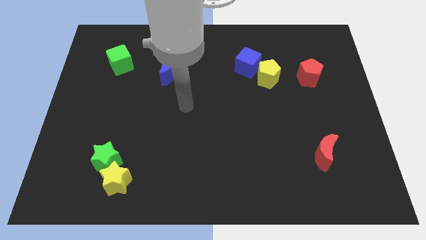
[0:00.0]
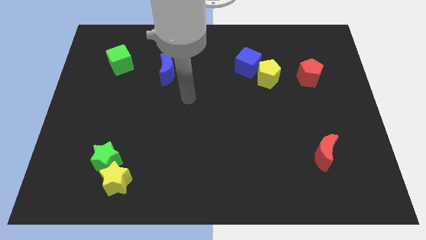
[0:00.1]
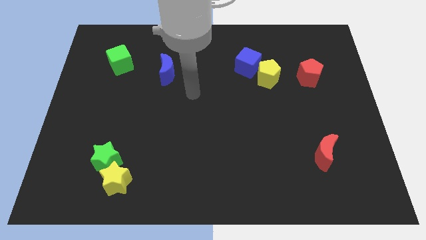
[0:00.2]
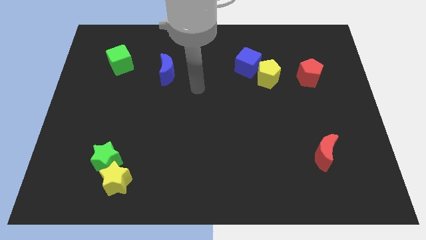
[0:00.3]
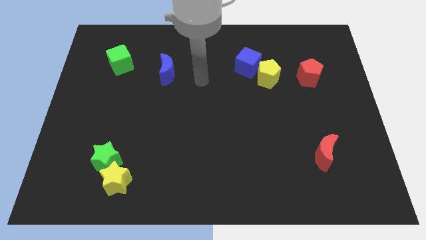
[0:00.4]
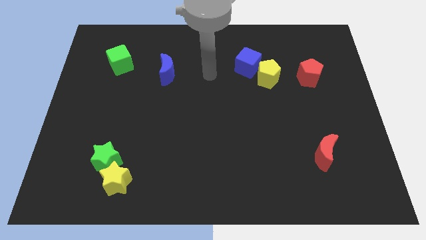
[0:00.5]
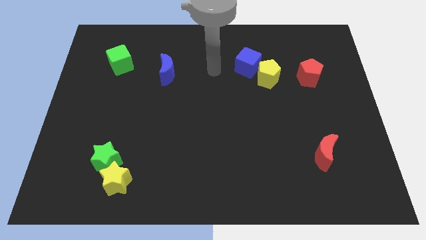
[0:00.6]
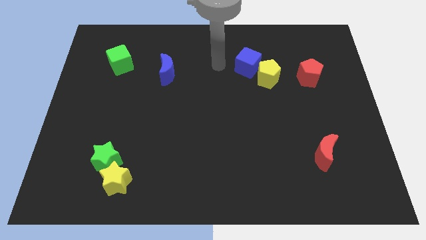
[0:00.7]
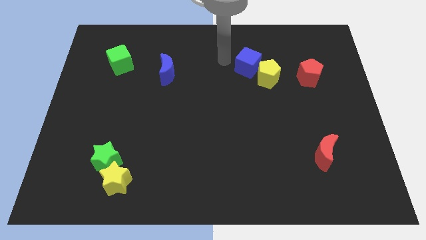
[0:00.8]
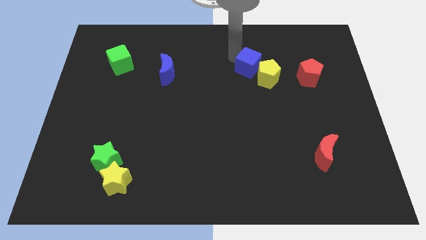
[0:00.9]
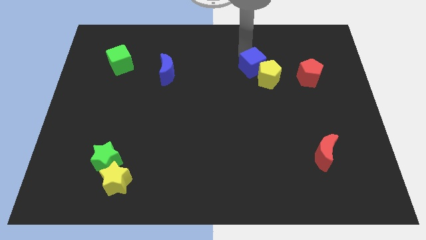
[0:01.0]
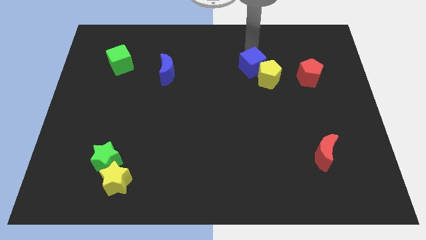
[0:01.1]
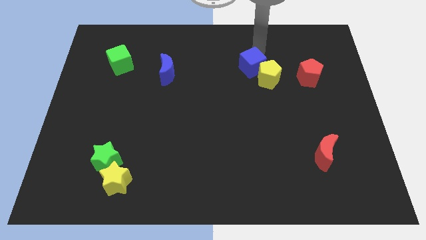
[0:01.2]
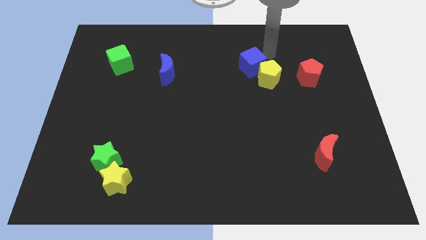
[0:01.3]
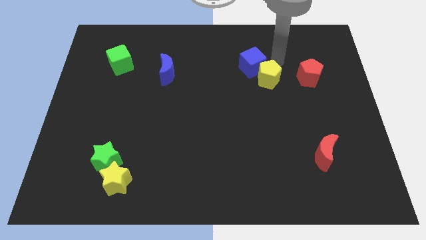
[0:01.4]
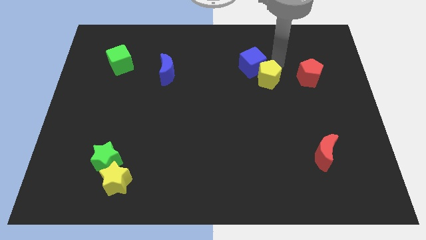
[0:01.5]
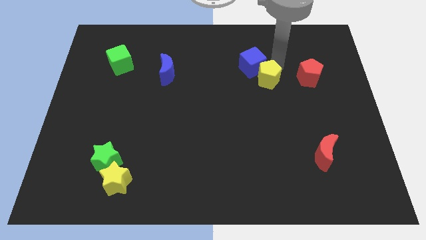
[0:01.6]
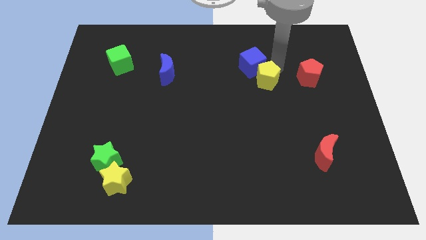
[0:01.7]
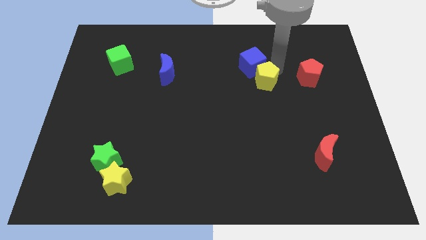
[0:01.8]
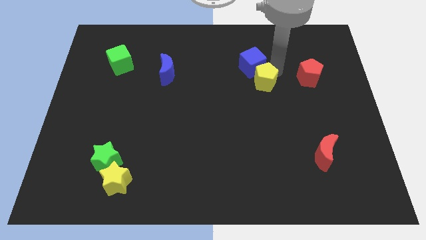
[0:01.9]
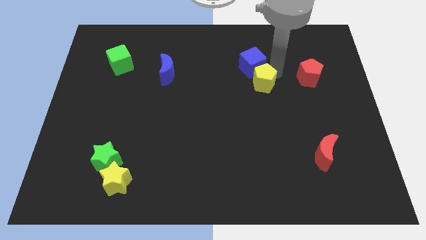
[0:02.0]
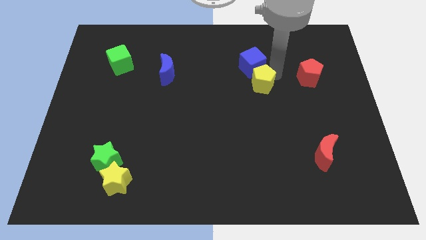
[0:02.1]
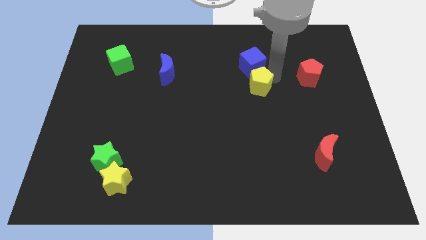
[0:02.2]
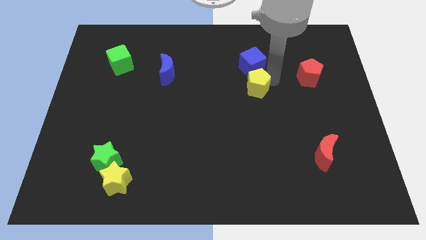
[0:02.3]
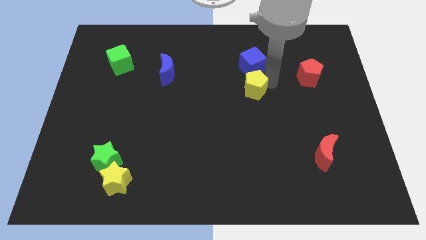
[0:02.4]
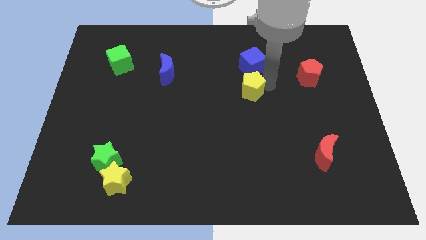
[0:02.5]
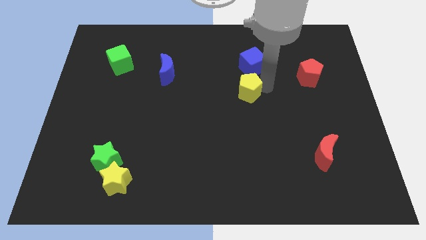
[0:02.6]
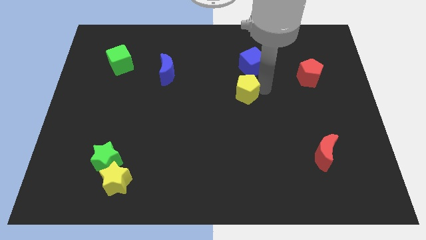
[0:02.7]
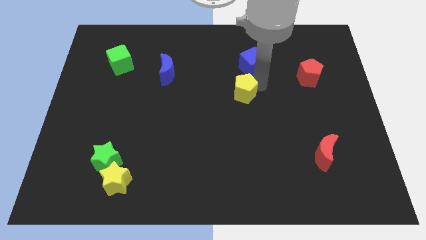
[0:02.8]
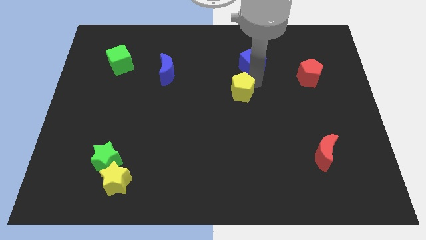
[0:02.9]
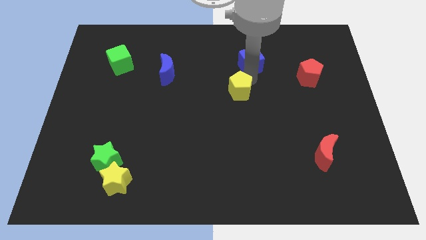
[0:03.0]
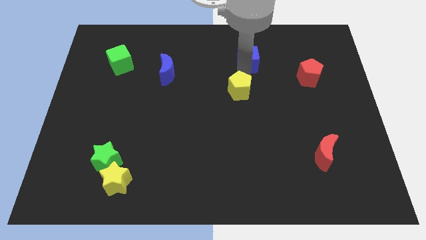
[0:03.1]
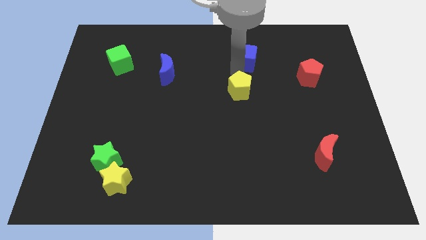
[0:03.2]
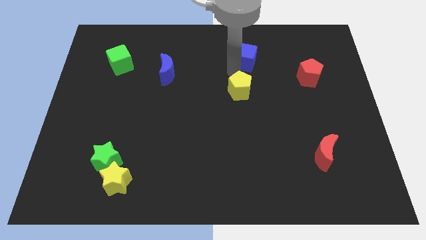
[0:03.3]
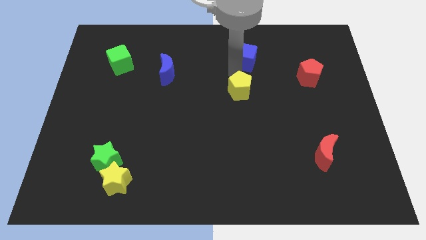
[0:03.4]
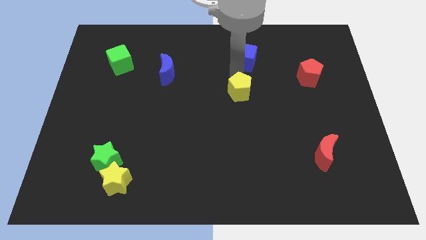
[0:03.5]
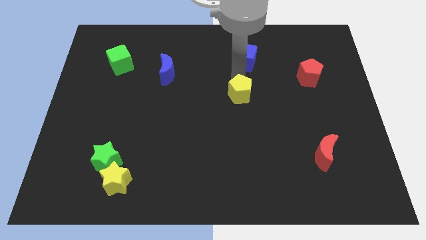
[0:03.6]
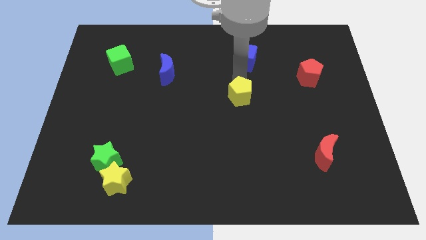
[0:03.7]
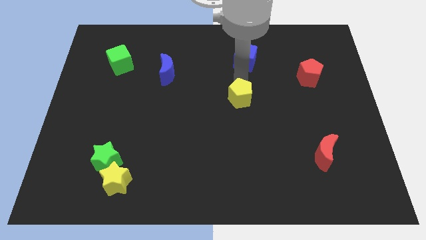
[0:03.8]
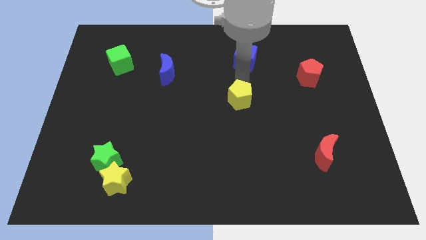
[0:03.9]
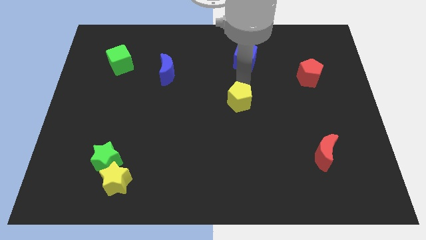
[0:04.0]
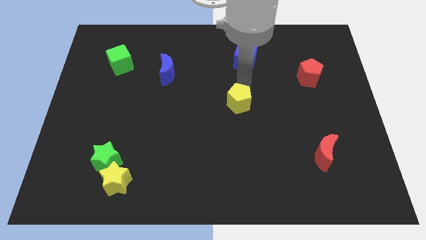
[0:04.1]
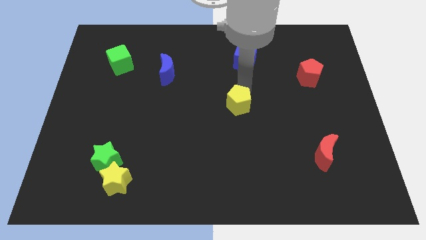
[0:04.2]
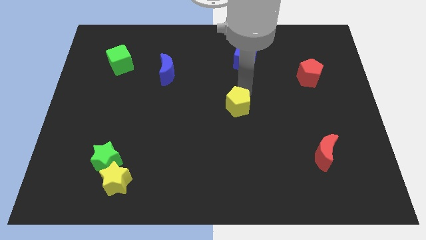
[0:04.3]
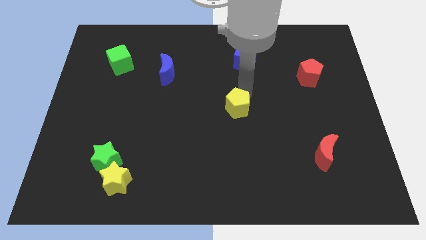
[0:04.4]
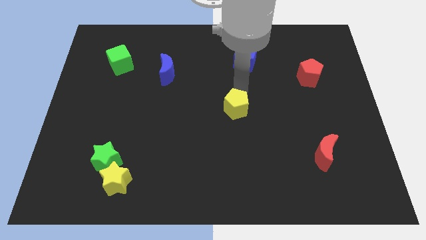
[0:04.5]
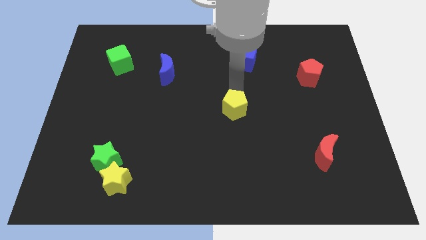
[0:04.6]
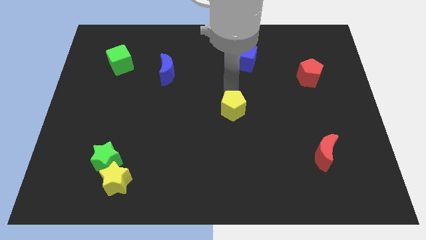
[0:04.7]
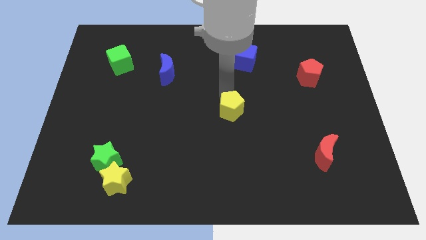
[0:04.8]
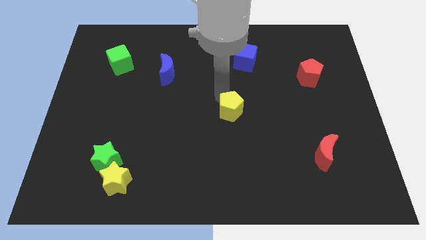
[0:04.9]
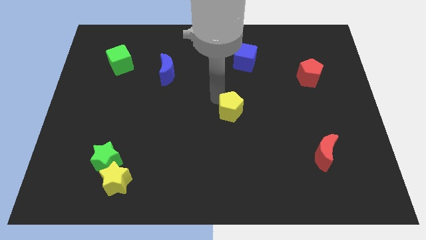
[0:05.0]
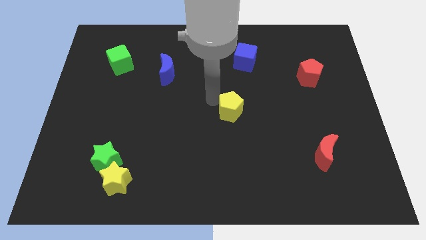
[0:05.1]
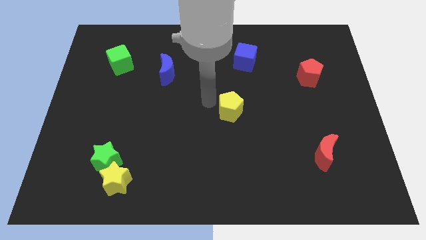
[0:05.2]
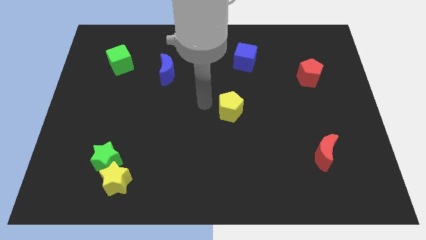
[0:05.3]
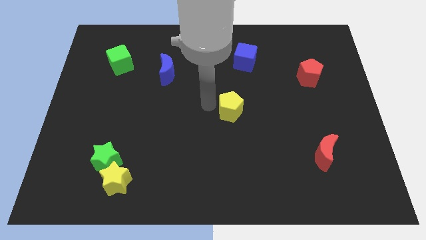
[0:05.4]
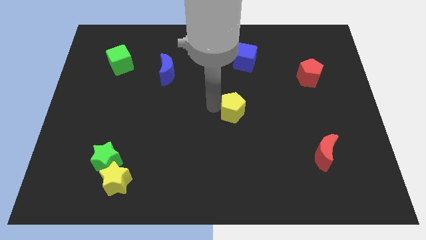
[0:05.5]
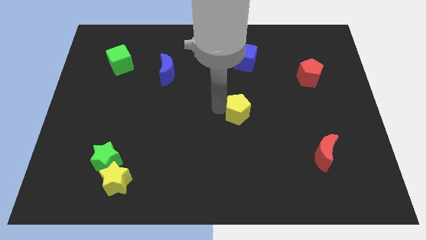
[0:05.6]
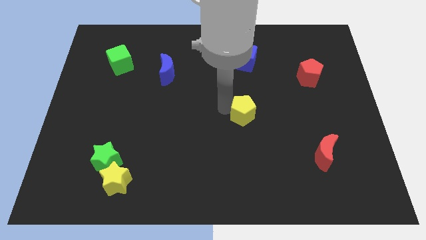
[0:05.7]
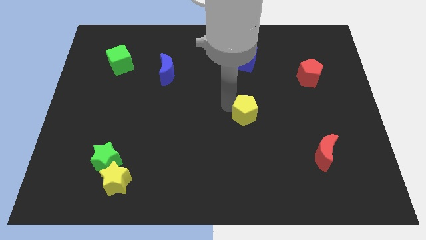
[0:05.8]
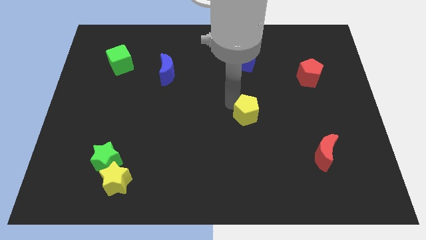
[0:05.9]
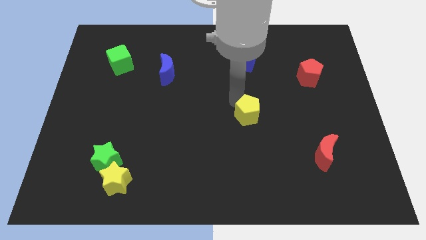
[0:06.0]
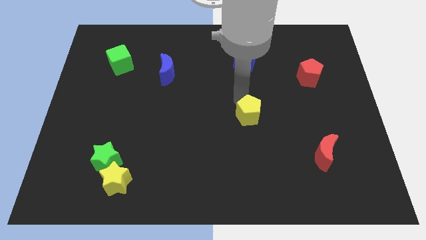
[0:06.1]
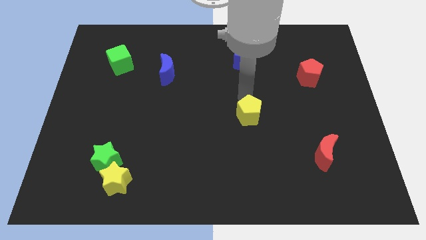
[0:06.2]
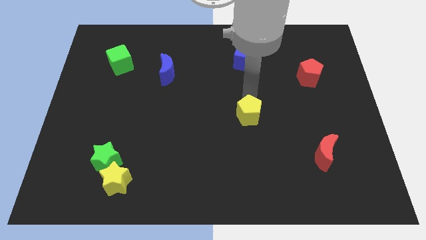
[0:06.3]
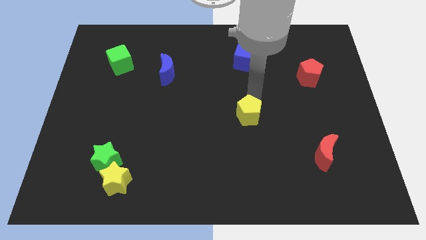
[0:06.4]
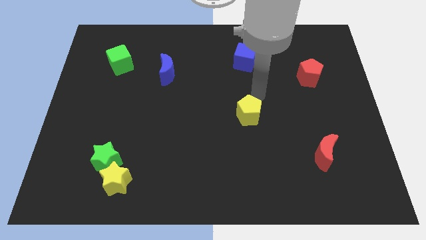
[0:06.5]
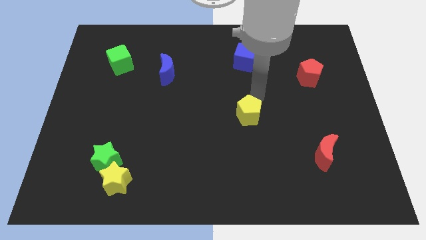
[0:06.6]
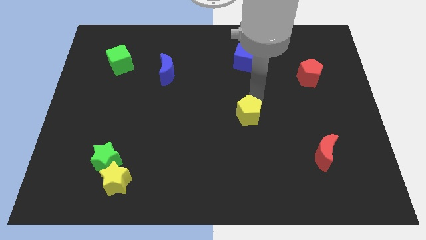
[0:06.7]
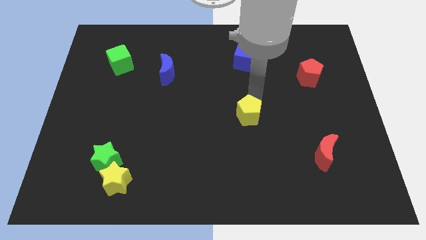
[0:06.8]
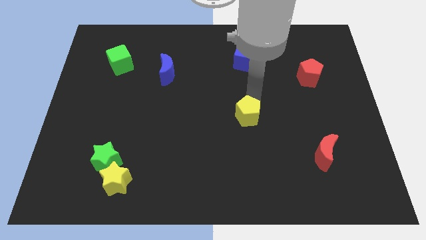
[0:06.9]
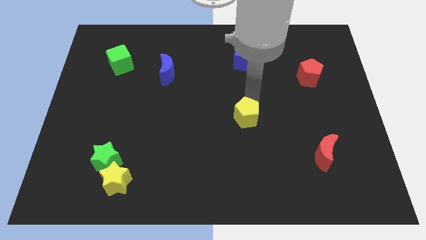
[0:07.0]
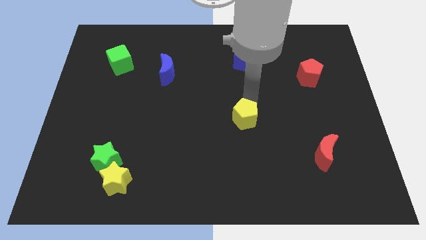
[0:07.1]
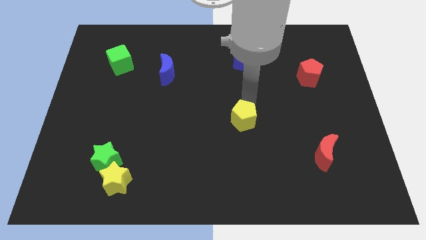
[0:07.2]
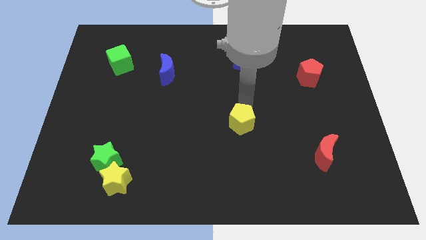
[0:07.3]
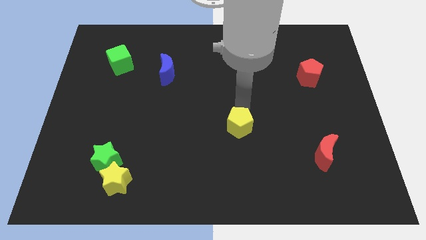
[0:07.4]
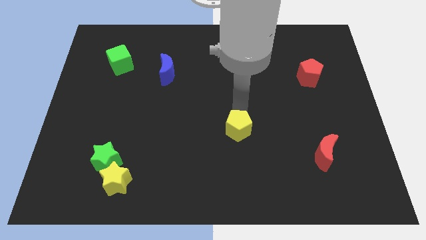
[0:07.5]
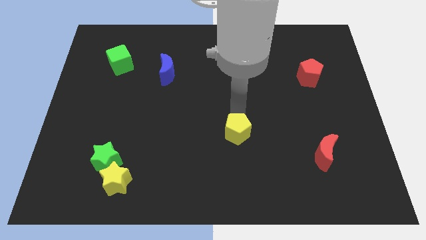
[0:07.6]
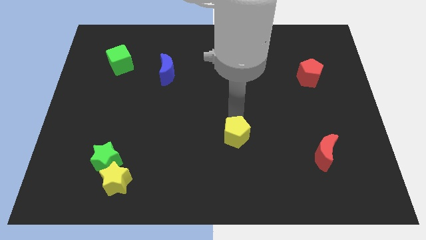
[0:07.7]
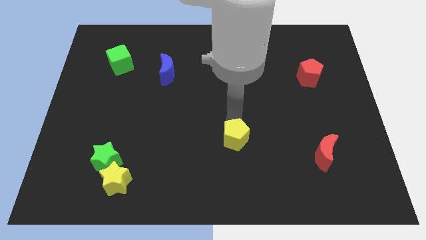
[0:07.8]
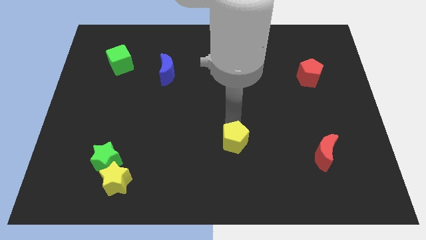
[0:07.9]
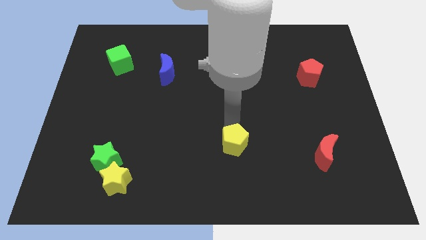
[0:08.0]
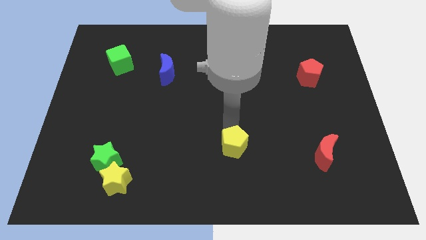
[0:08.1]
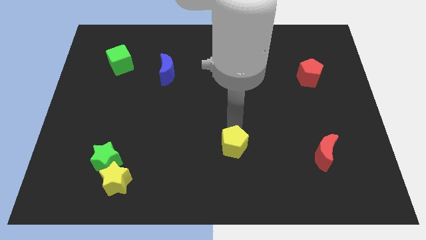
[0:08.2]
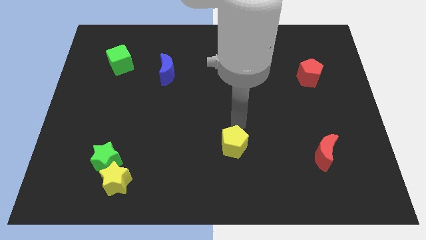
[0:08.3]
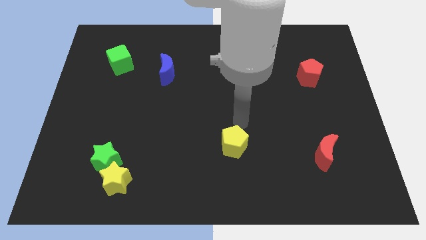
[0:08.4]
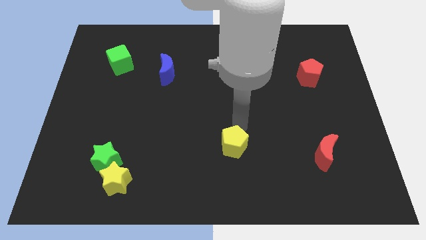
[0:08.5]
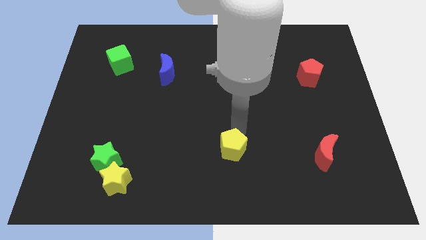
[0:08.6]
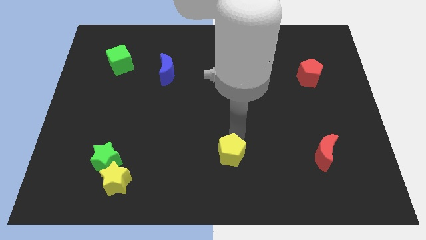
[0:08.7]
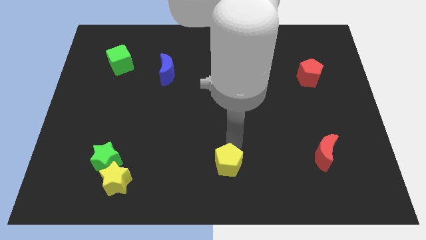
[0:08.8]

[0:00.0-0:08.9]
put the yellow pentagon to the bottom side
